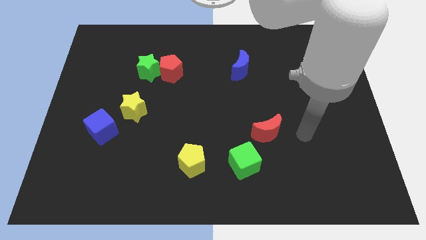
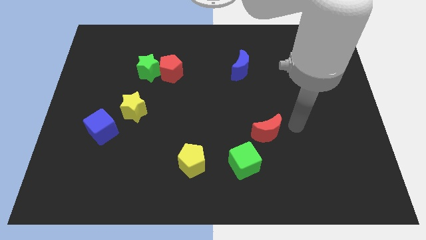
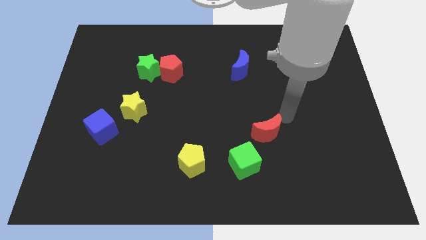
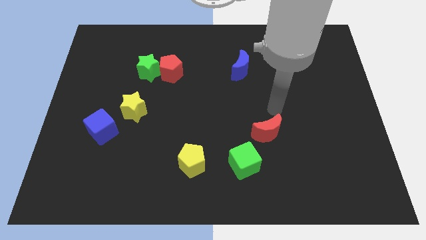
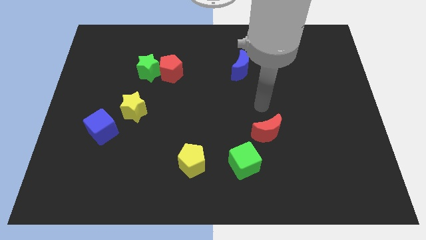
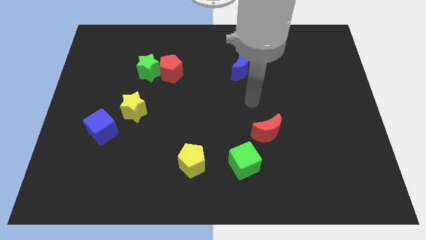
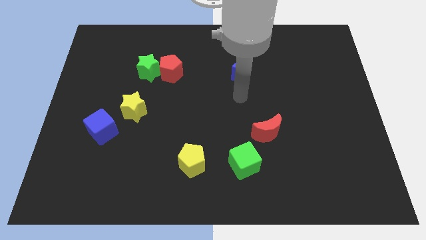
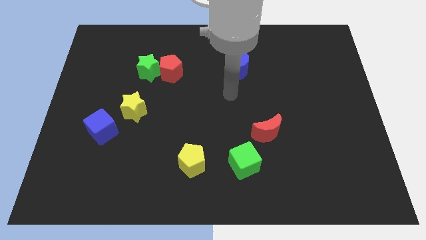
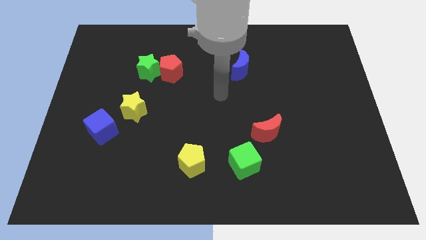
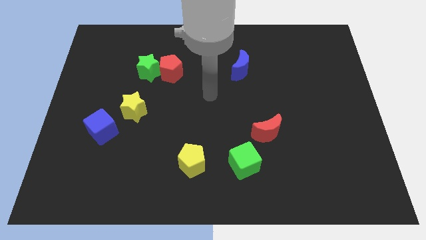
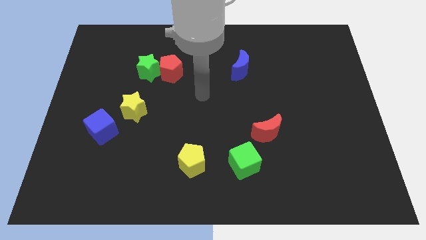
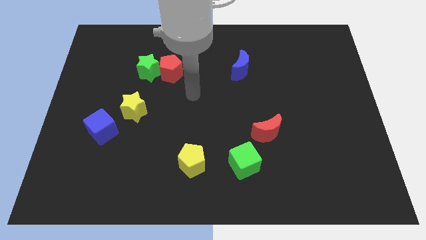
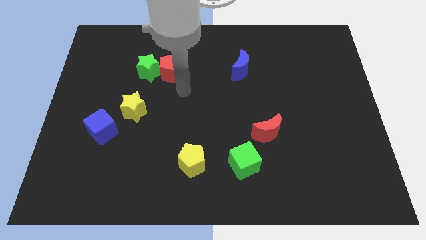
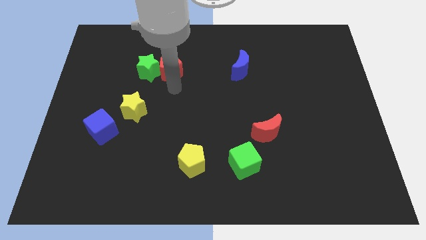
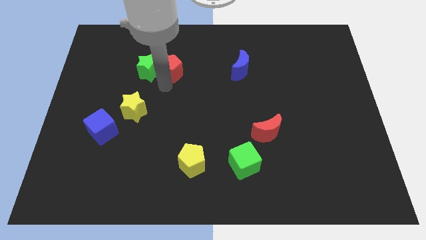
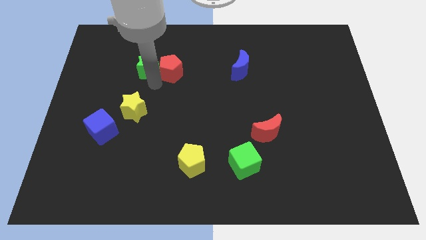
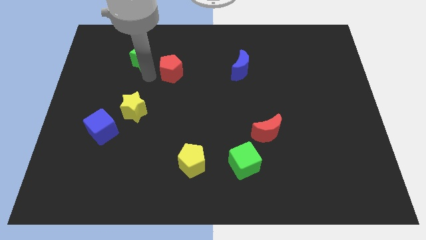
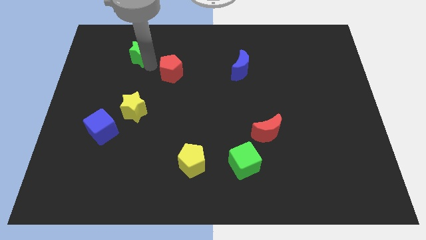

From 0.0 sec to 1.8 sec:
pull the red pentagon apart from the green star

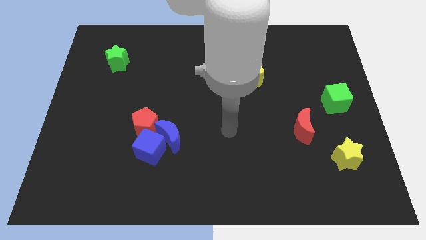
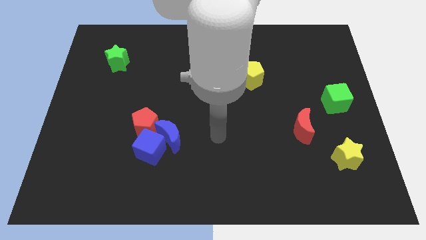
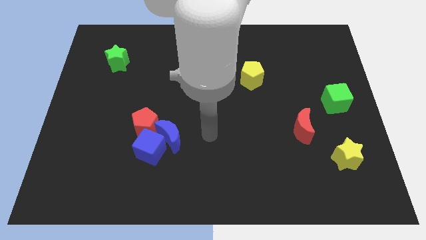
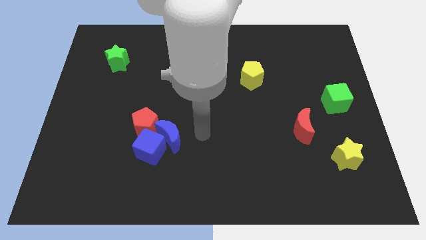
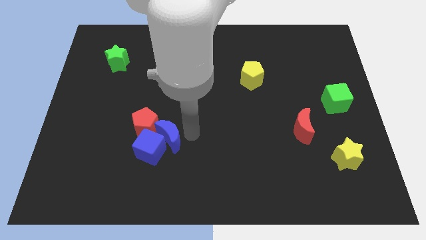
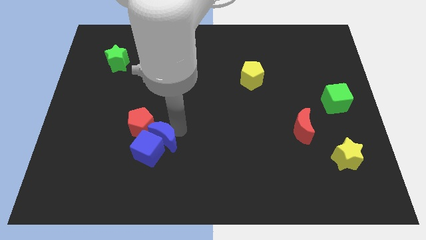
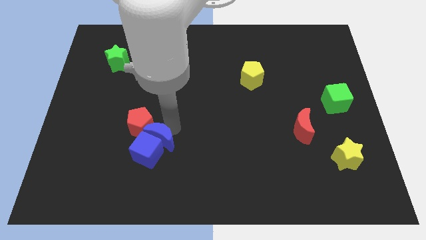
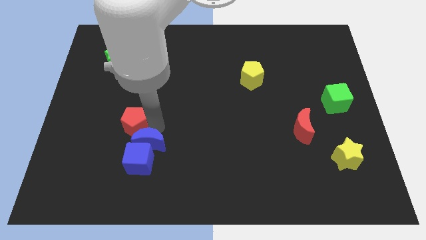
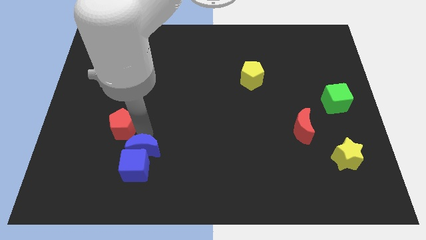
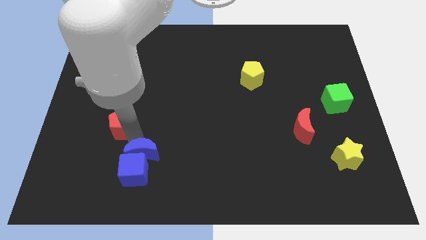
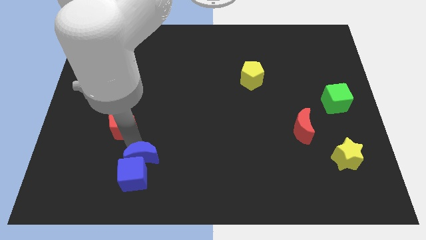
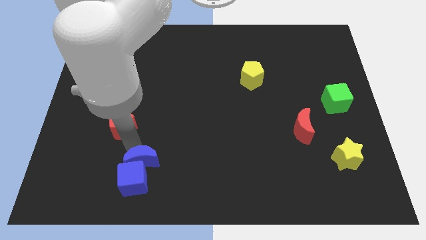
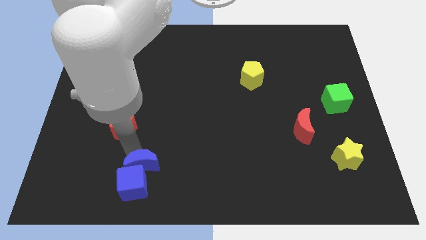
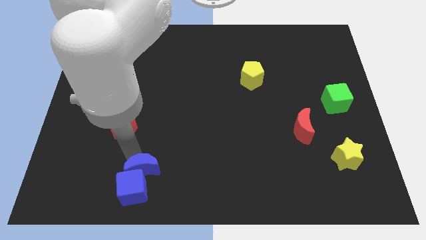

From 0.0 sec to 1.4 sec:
separate the blue cube from the blue moon and red pentagon

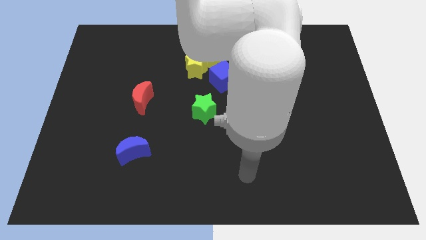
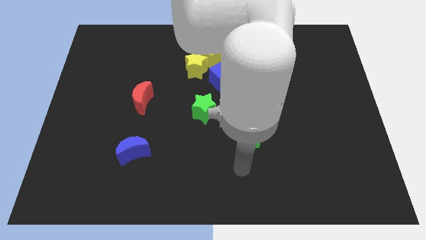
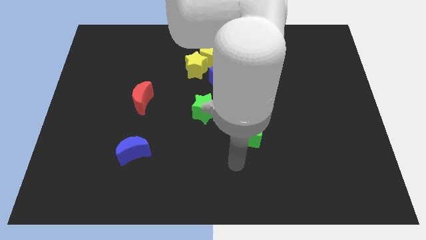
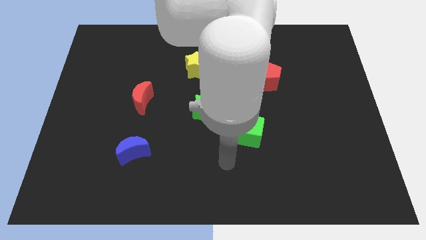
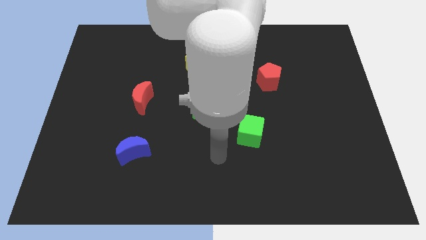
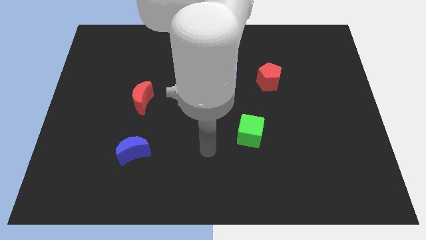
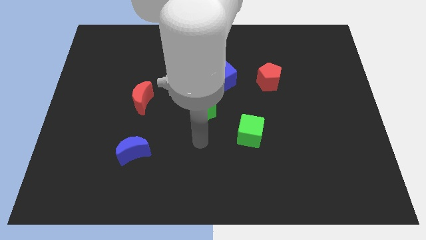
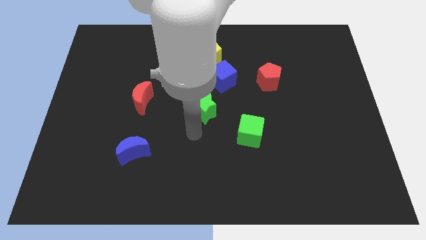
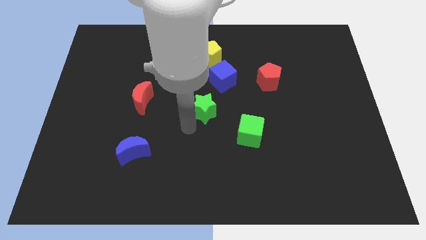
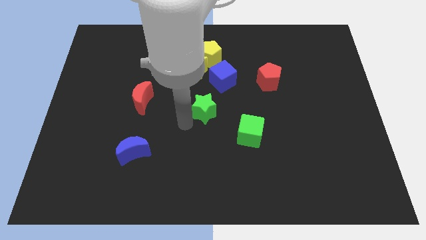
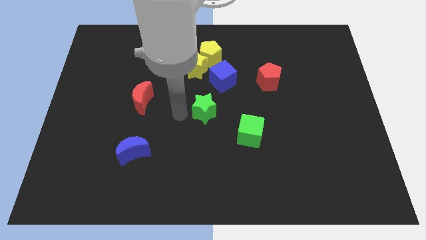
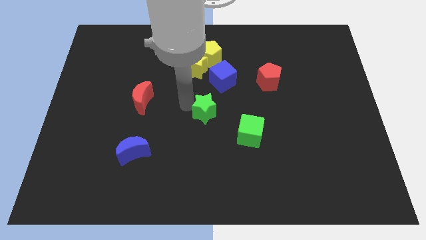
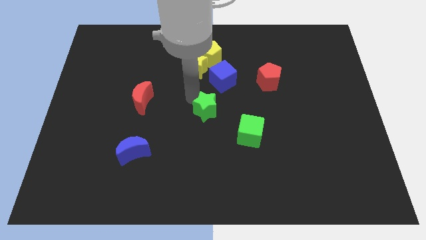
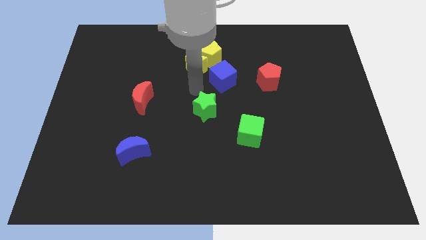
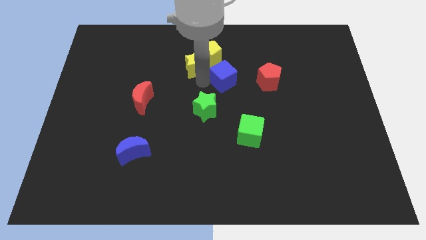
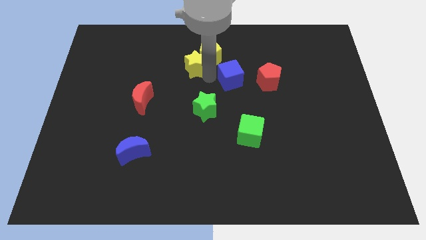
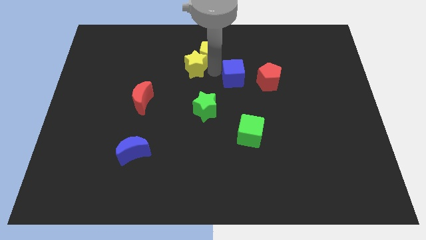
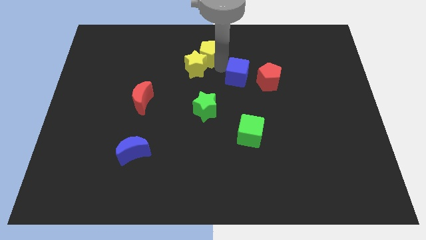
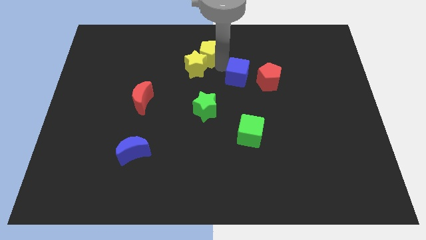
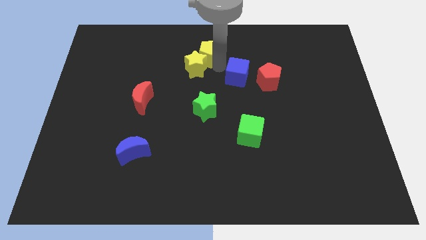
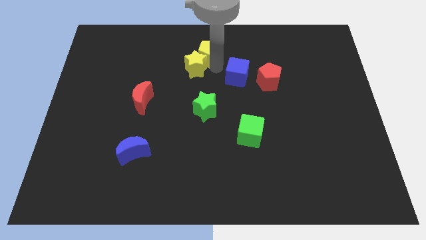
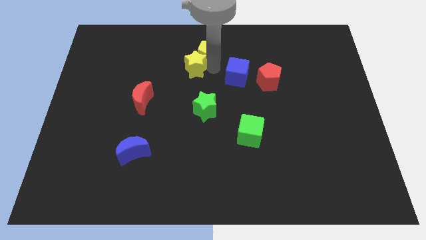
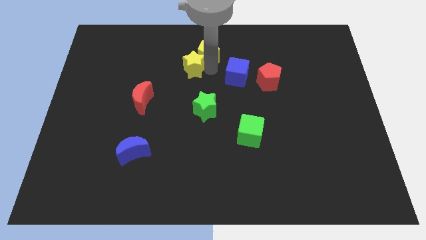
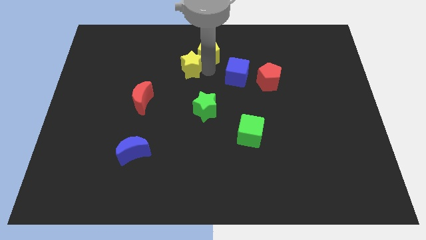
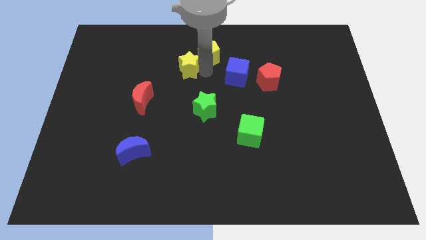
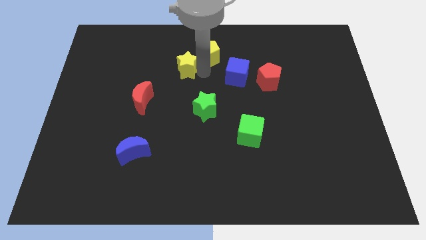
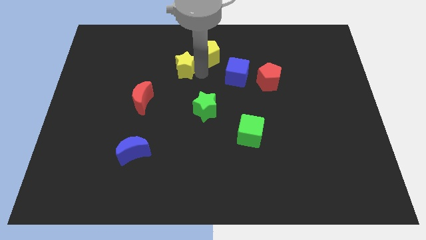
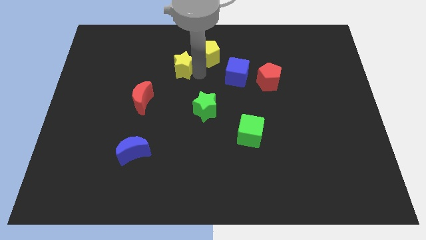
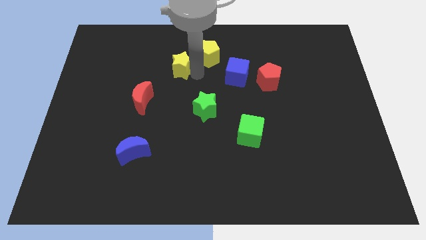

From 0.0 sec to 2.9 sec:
separate the yellow star from the yellow pentagon and blue cube

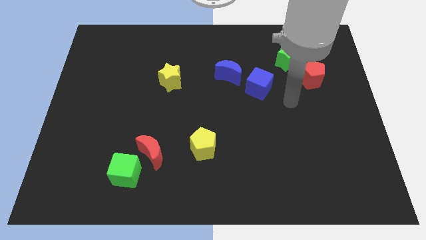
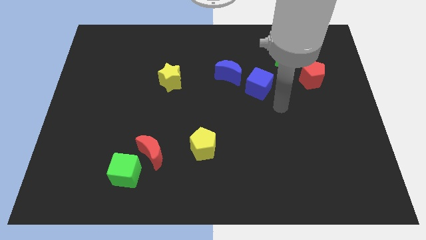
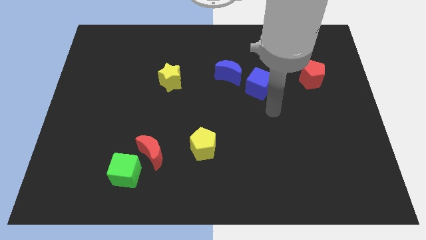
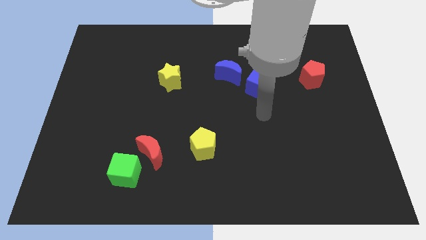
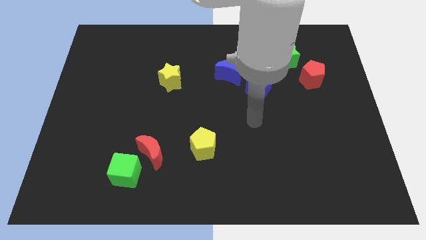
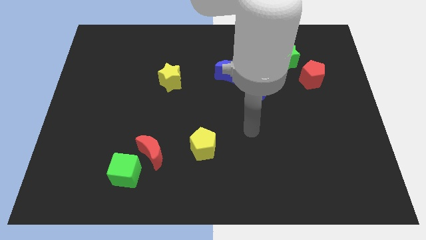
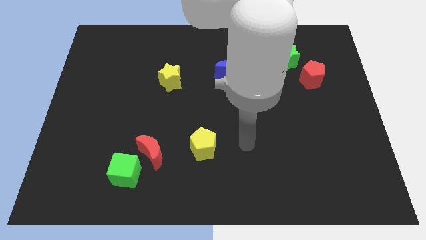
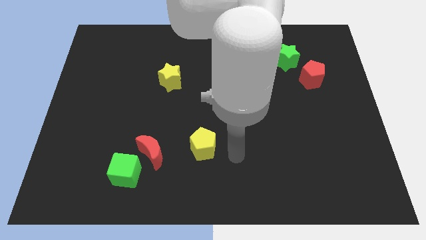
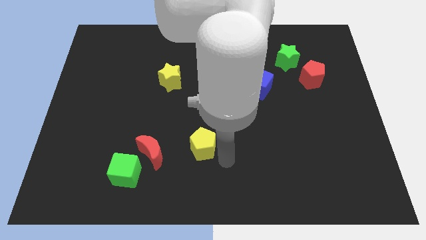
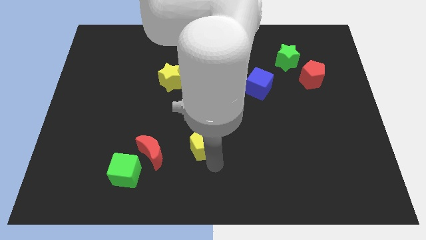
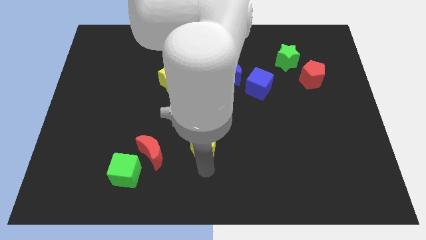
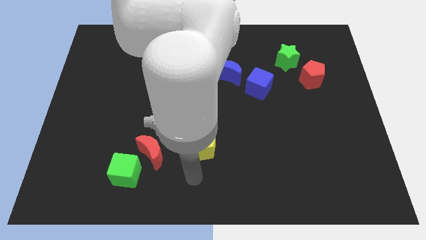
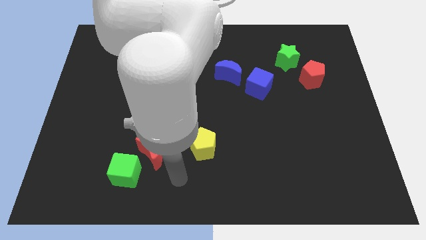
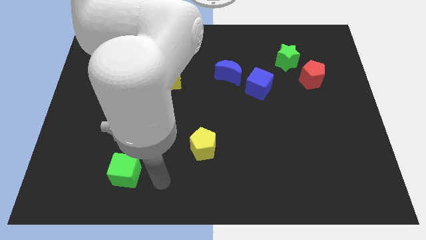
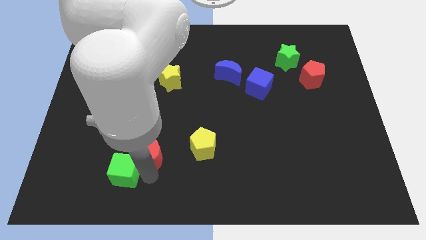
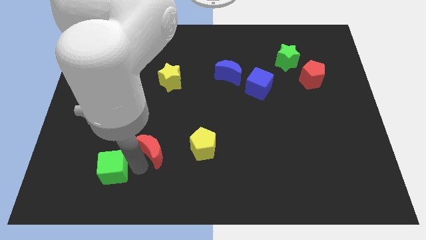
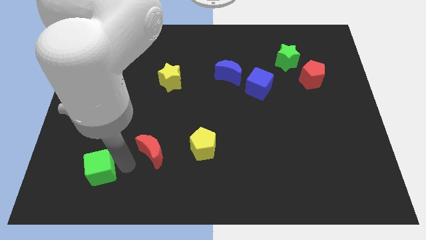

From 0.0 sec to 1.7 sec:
separate the red moon from the green cube

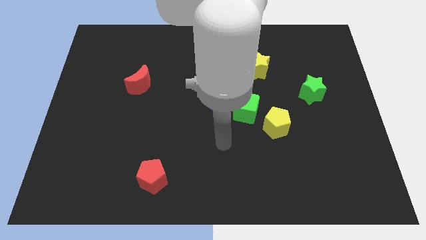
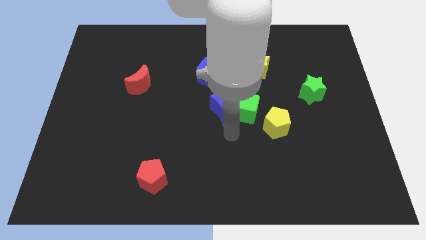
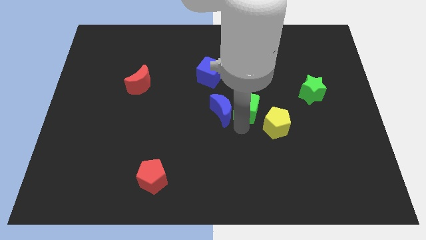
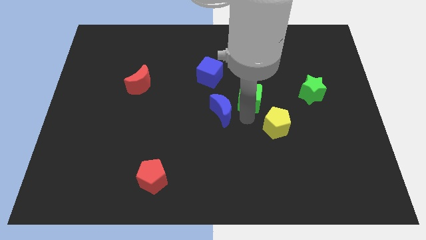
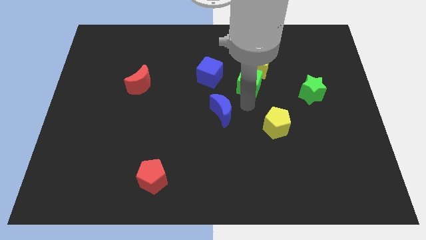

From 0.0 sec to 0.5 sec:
pull the blue moon apart from the green cube

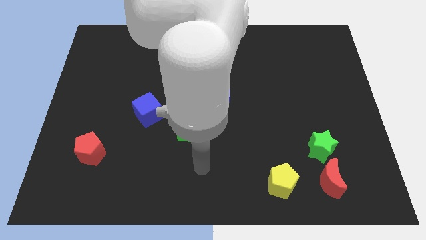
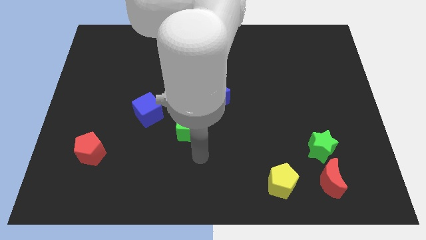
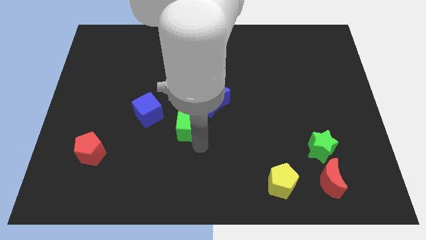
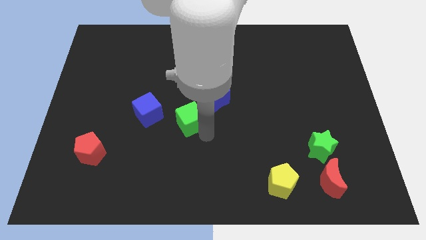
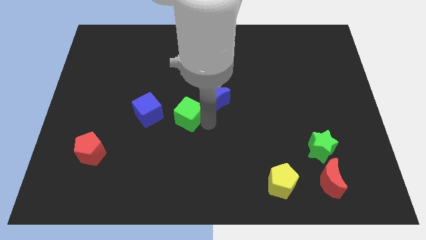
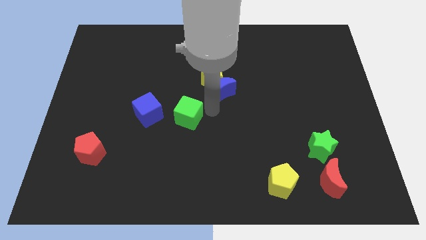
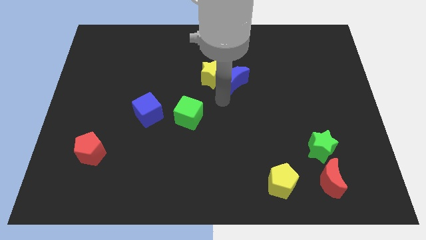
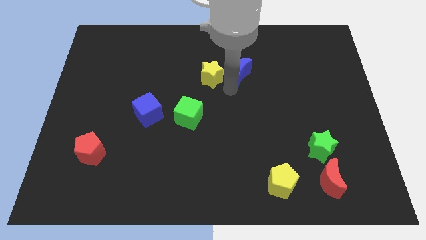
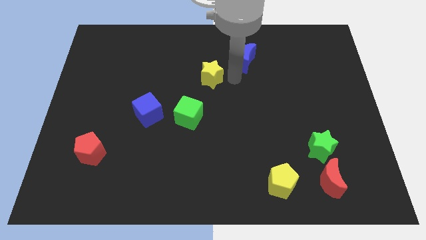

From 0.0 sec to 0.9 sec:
move the yellow star away from the blue moon
